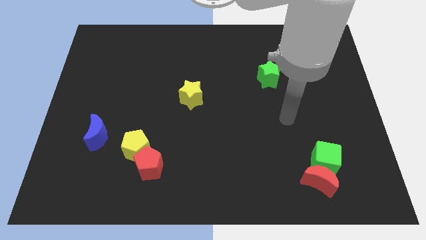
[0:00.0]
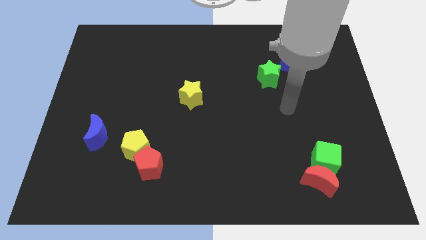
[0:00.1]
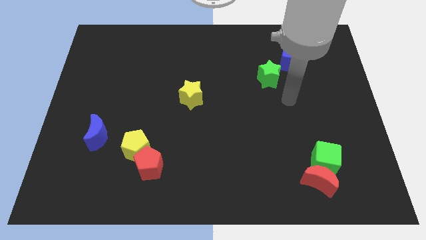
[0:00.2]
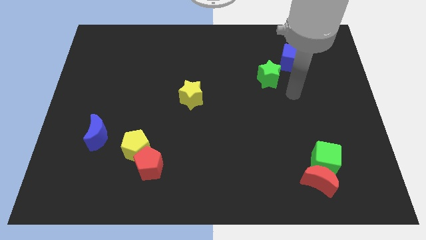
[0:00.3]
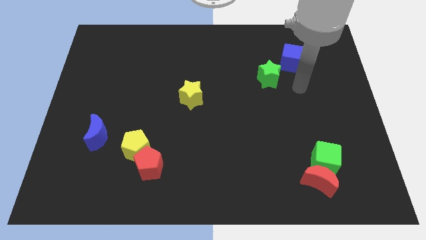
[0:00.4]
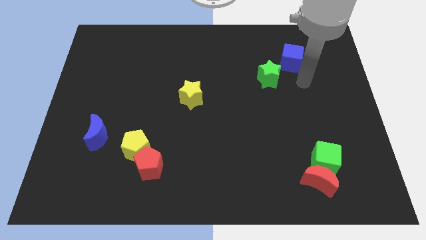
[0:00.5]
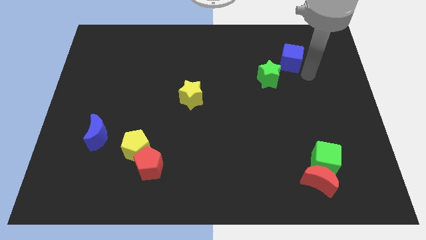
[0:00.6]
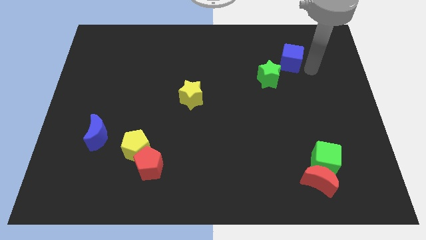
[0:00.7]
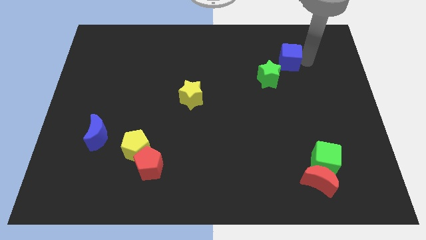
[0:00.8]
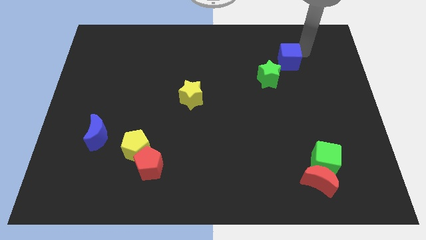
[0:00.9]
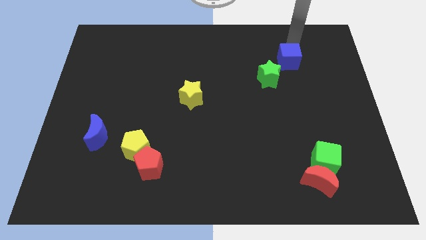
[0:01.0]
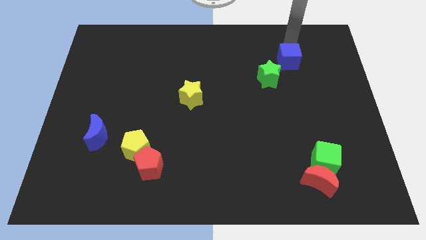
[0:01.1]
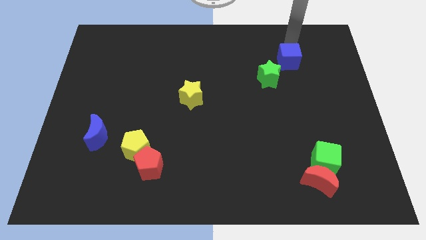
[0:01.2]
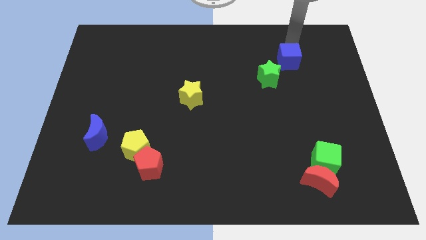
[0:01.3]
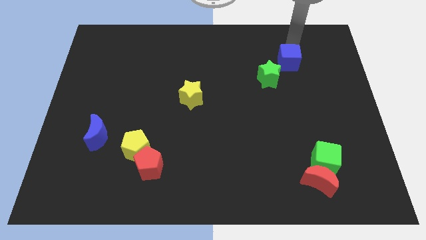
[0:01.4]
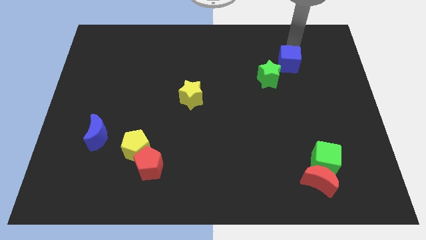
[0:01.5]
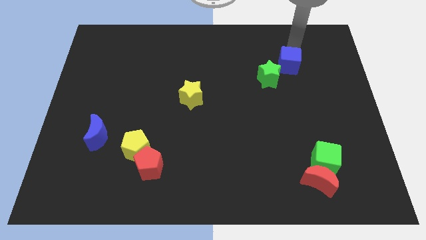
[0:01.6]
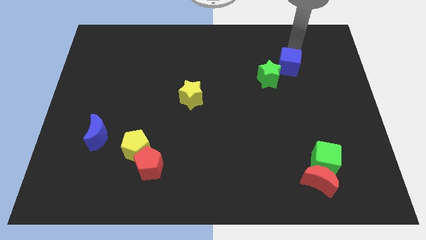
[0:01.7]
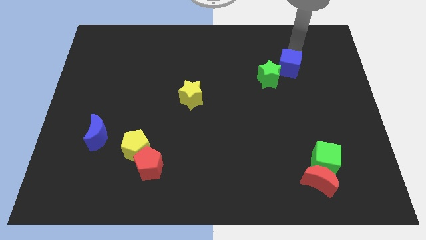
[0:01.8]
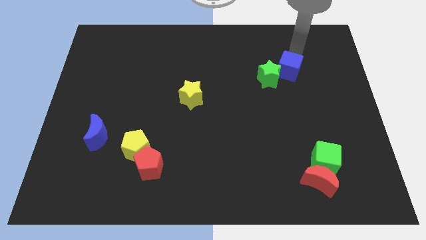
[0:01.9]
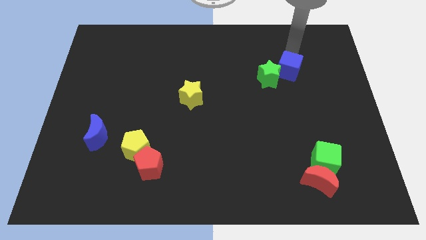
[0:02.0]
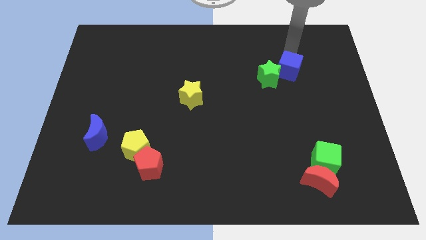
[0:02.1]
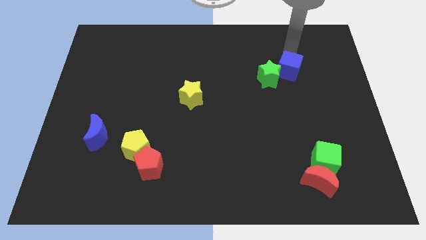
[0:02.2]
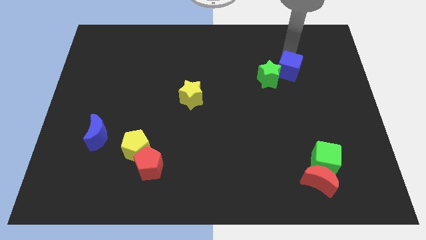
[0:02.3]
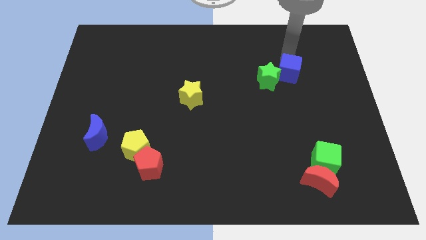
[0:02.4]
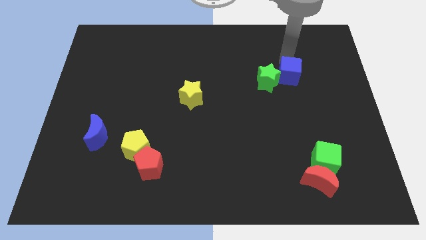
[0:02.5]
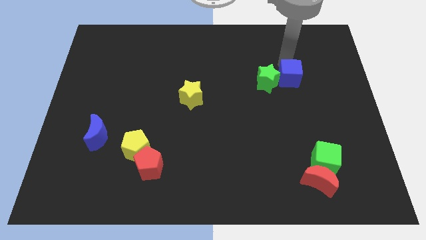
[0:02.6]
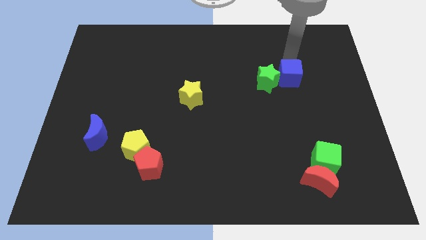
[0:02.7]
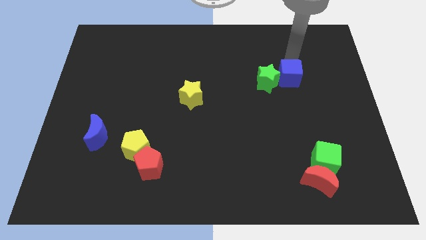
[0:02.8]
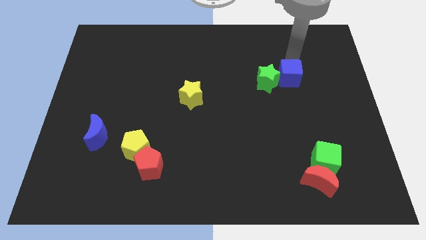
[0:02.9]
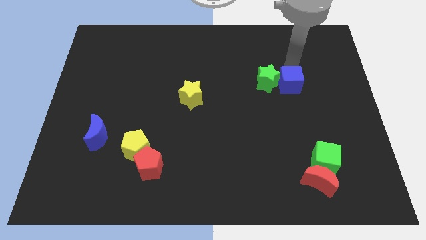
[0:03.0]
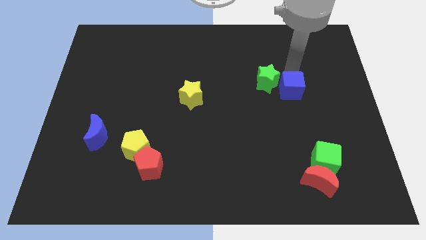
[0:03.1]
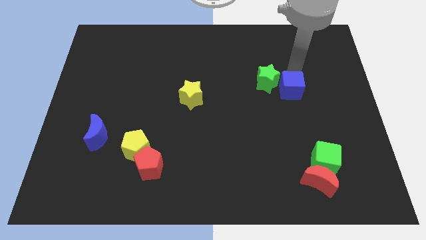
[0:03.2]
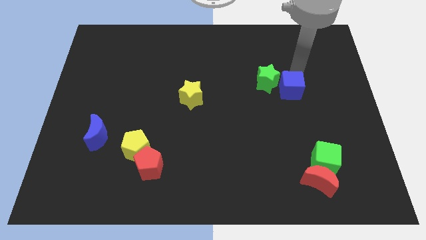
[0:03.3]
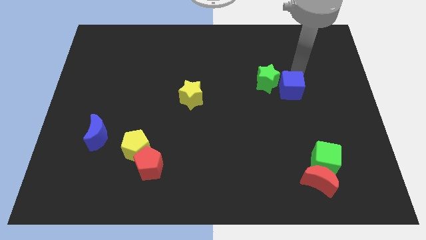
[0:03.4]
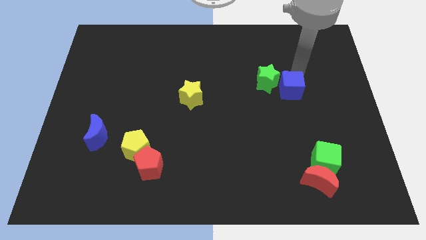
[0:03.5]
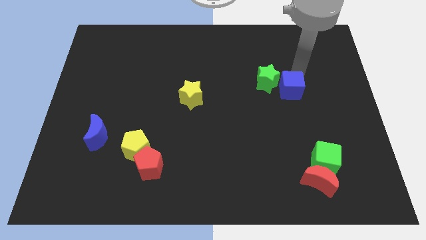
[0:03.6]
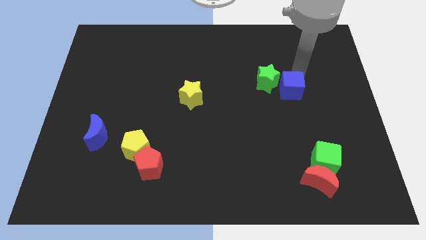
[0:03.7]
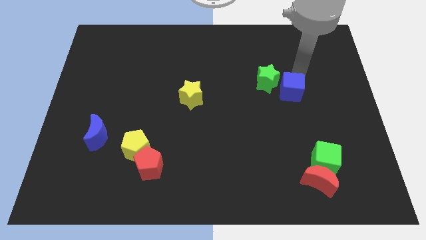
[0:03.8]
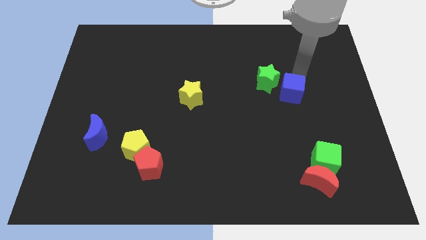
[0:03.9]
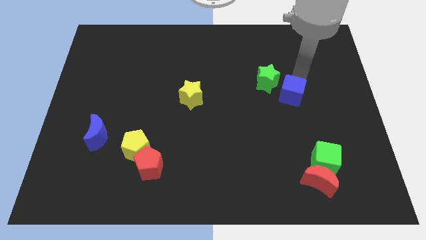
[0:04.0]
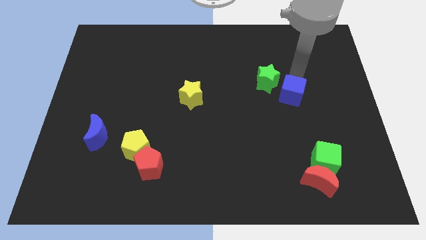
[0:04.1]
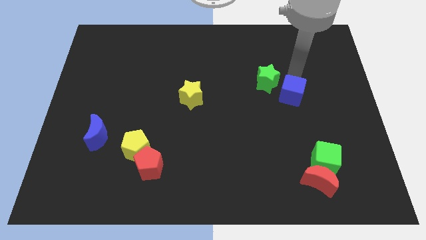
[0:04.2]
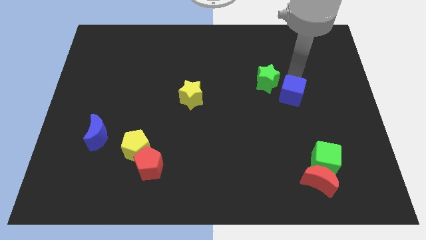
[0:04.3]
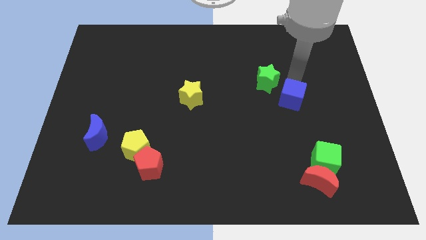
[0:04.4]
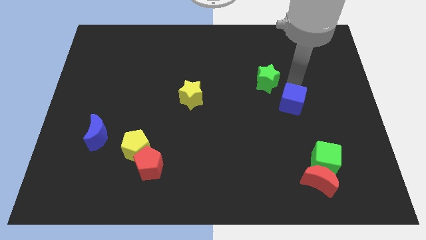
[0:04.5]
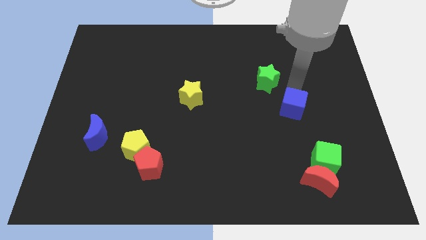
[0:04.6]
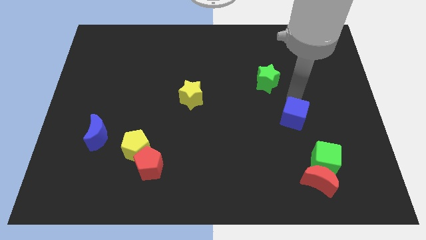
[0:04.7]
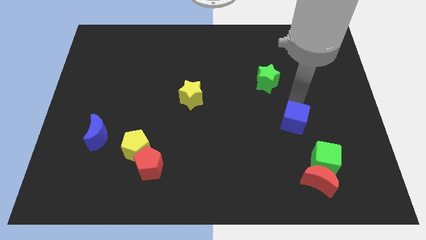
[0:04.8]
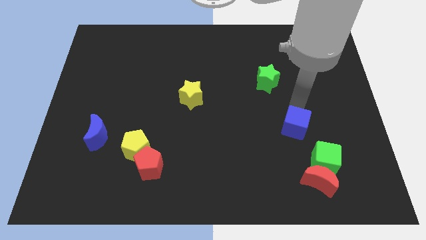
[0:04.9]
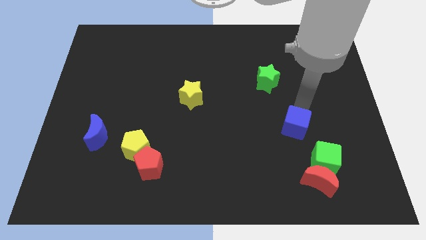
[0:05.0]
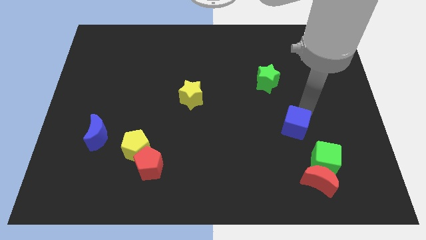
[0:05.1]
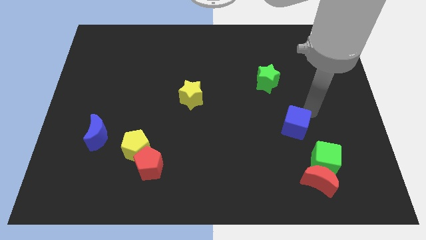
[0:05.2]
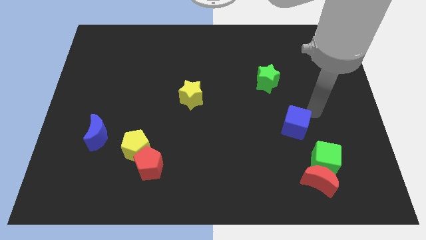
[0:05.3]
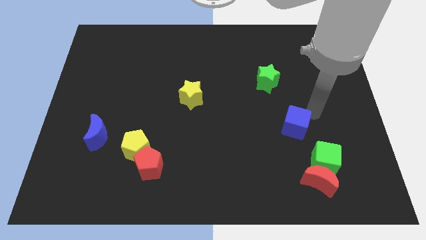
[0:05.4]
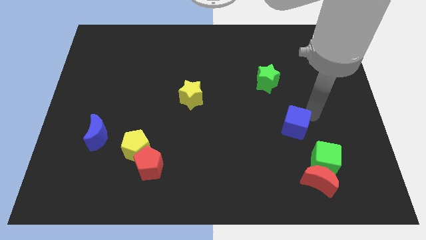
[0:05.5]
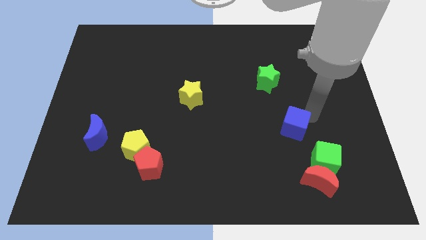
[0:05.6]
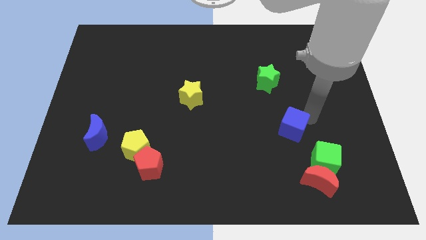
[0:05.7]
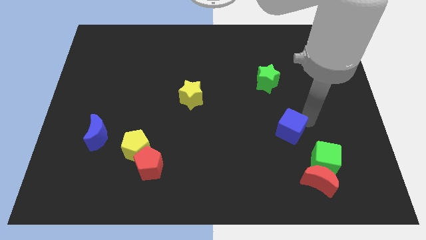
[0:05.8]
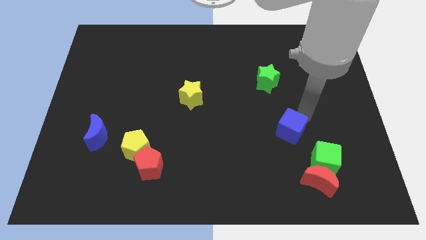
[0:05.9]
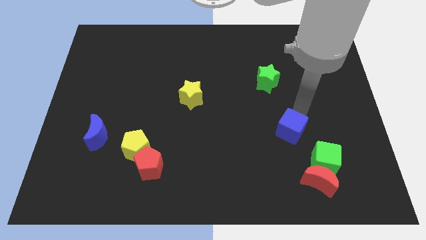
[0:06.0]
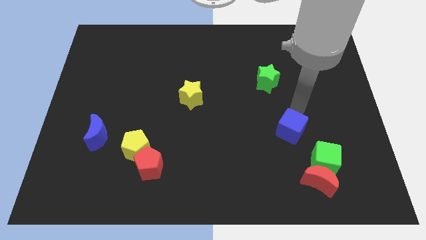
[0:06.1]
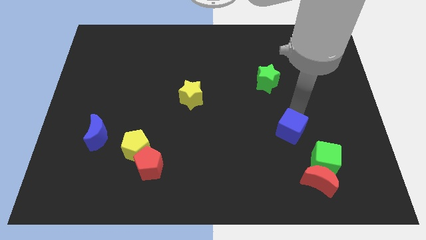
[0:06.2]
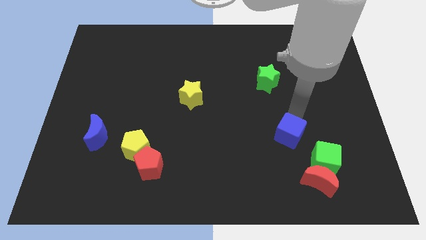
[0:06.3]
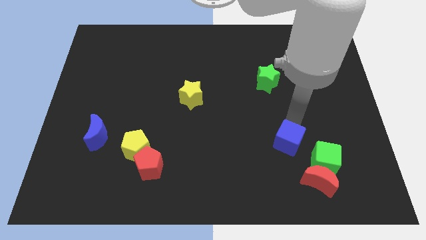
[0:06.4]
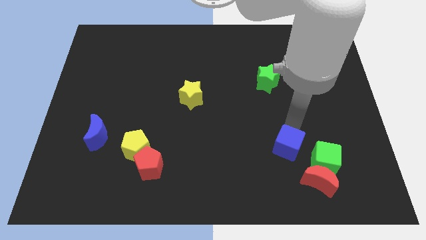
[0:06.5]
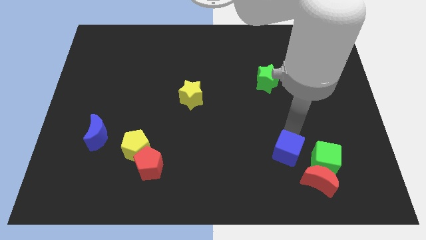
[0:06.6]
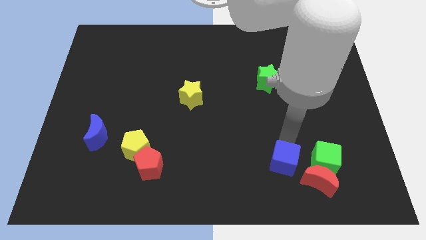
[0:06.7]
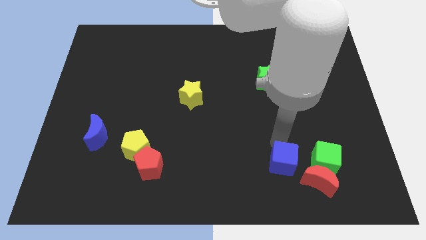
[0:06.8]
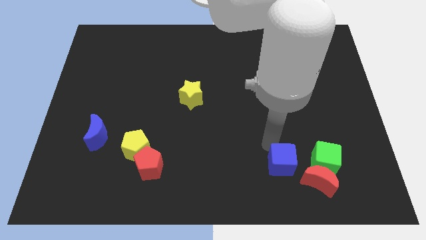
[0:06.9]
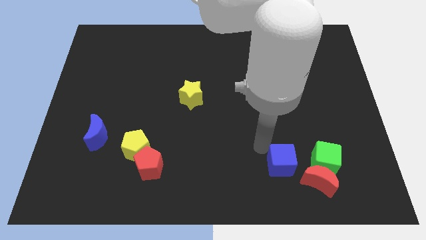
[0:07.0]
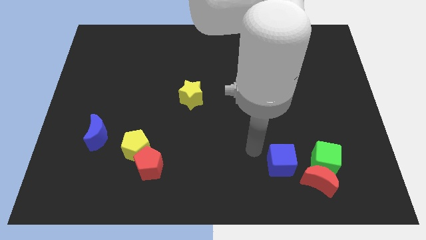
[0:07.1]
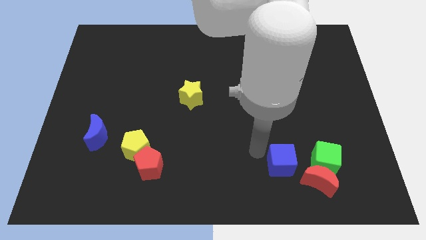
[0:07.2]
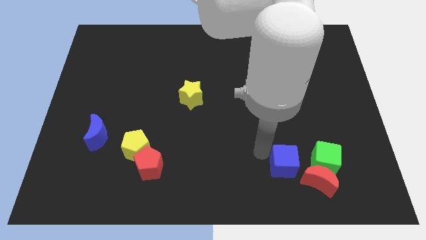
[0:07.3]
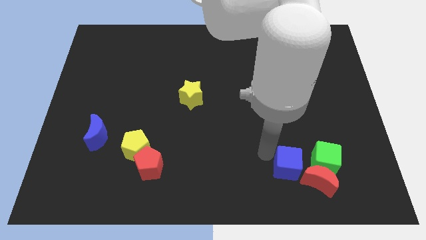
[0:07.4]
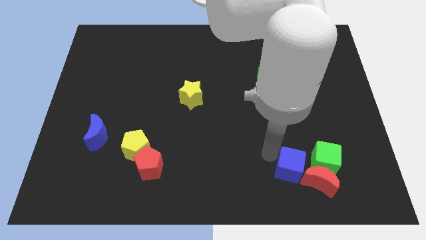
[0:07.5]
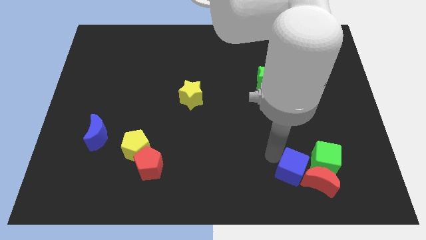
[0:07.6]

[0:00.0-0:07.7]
move the blue cube to the red moon
